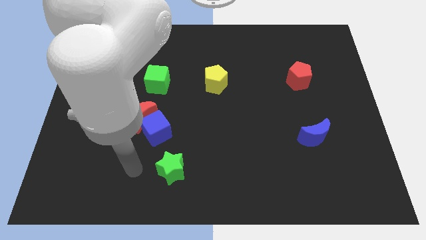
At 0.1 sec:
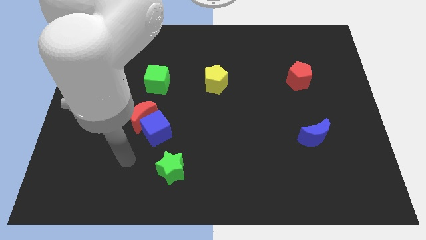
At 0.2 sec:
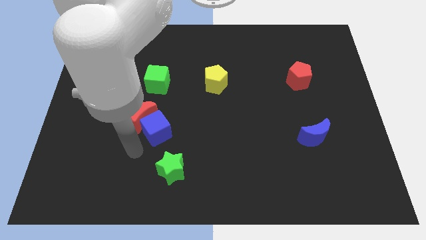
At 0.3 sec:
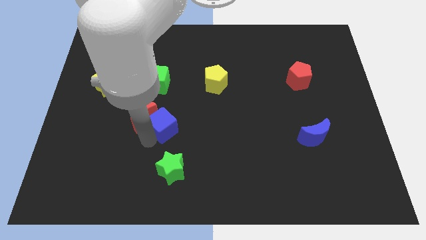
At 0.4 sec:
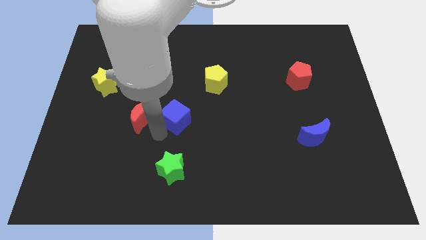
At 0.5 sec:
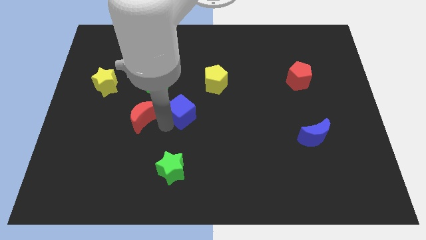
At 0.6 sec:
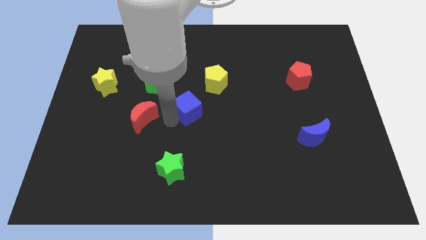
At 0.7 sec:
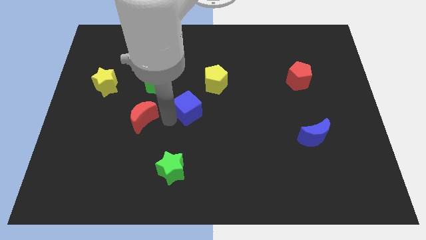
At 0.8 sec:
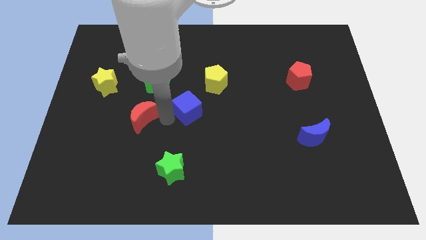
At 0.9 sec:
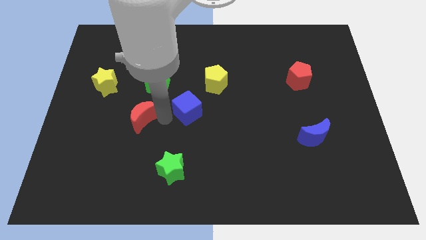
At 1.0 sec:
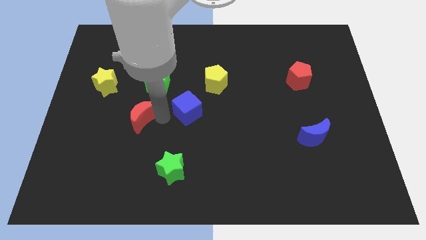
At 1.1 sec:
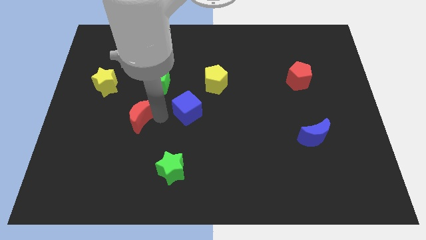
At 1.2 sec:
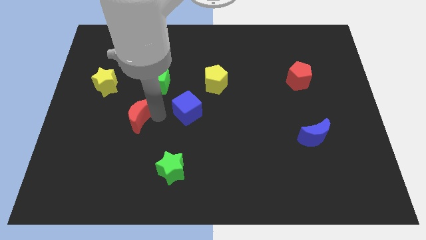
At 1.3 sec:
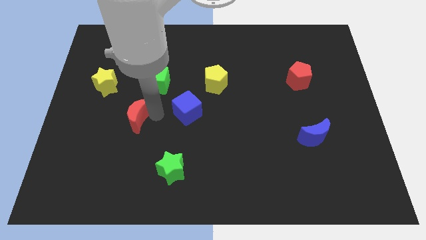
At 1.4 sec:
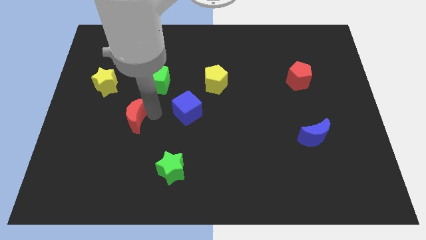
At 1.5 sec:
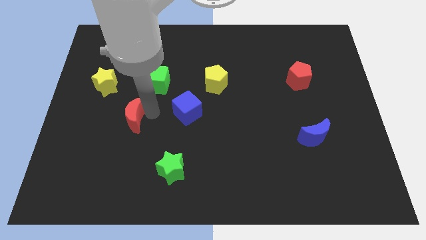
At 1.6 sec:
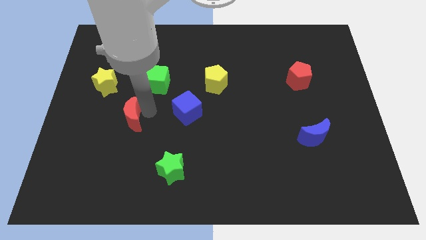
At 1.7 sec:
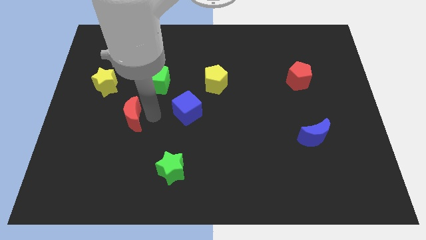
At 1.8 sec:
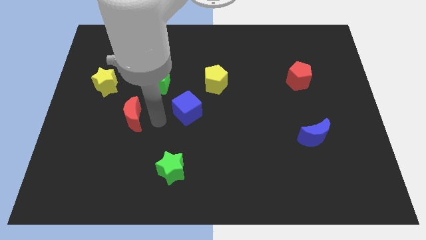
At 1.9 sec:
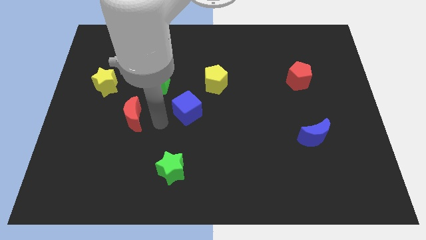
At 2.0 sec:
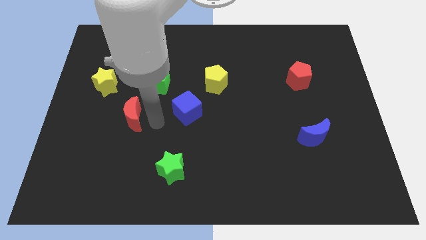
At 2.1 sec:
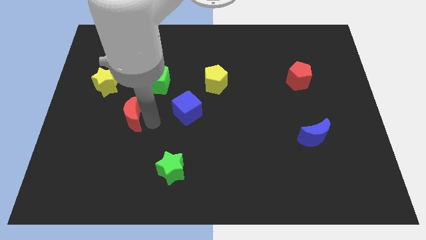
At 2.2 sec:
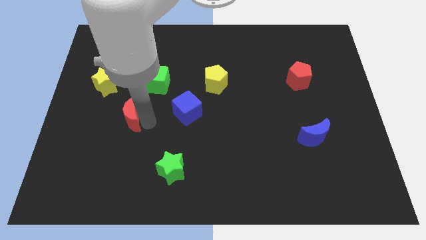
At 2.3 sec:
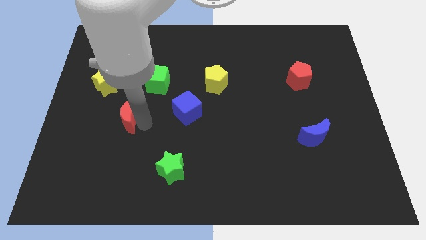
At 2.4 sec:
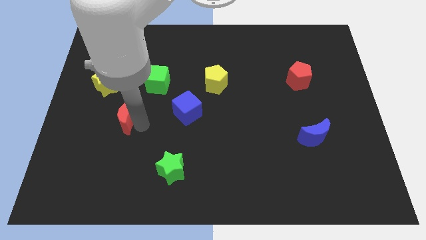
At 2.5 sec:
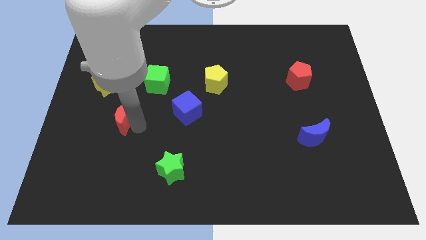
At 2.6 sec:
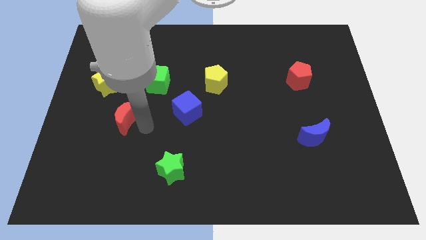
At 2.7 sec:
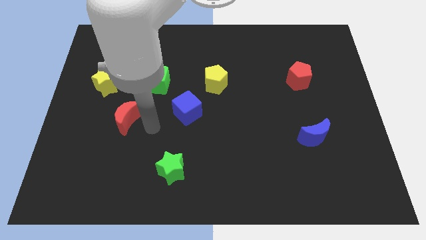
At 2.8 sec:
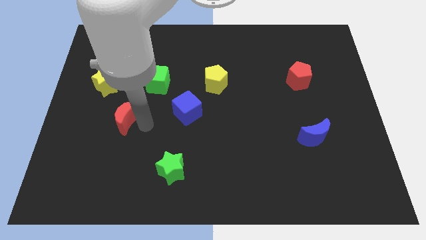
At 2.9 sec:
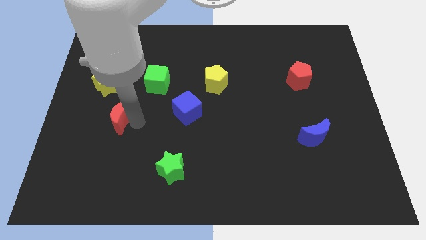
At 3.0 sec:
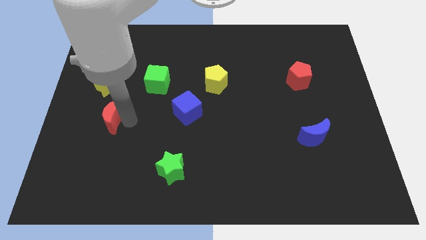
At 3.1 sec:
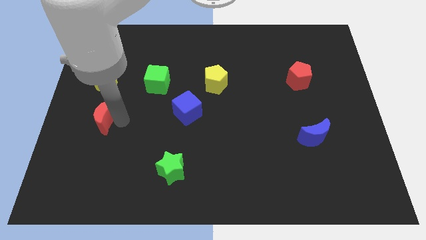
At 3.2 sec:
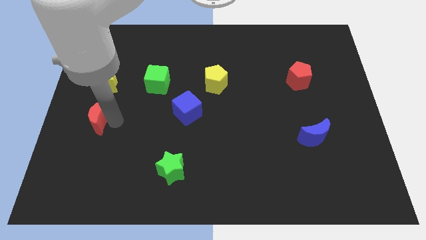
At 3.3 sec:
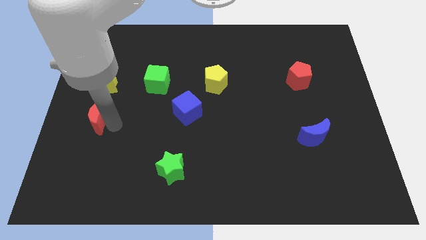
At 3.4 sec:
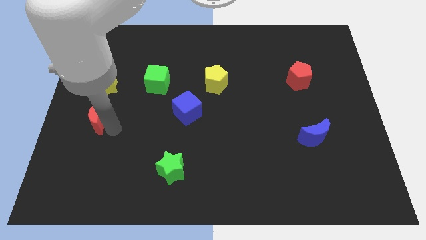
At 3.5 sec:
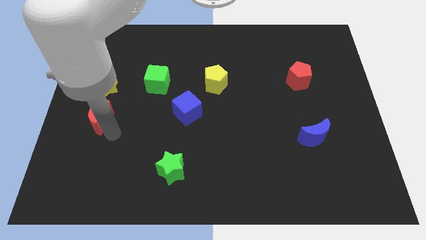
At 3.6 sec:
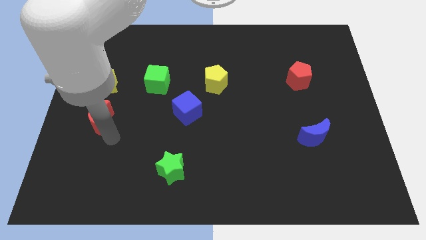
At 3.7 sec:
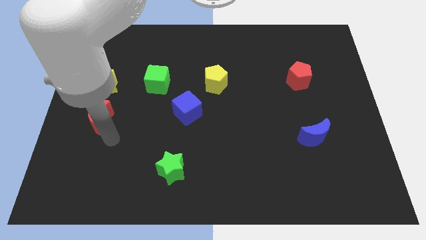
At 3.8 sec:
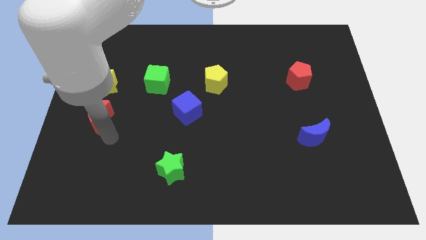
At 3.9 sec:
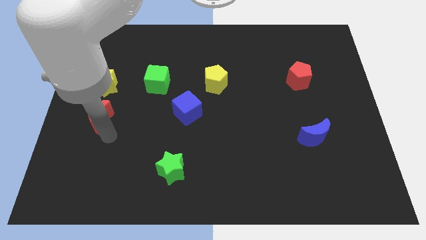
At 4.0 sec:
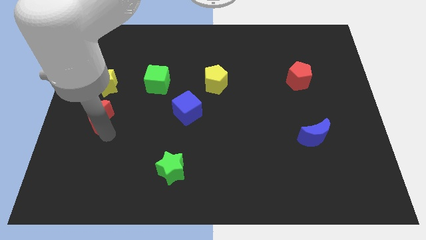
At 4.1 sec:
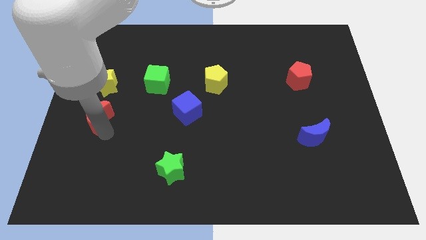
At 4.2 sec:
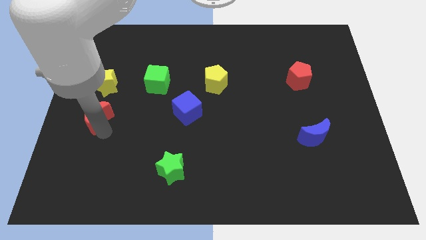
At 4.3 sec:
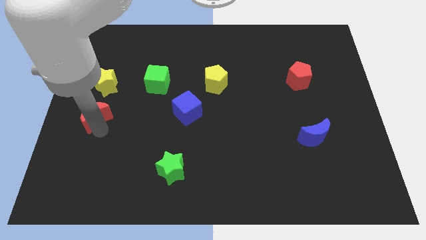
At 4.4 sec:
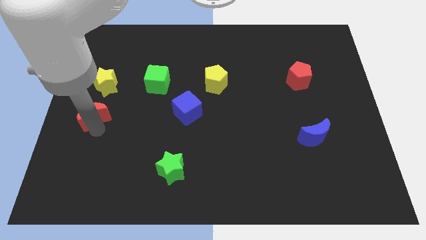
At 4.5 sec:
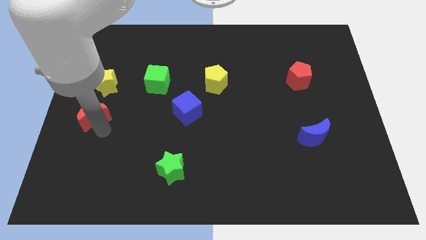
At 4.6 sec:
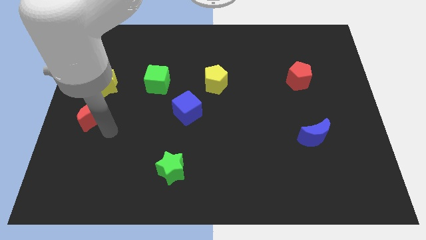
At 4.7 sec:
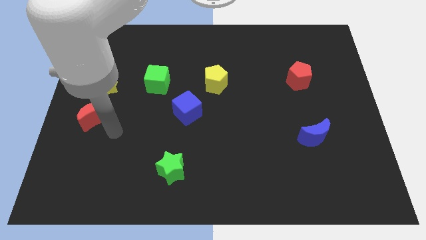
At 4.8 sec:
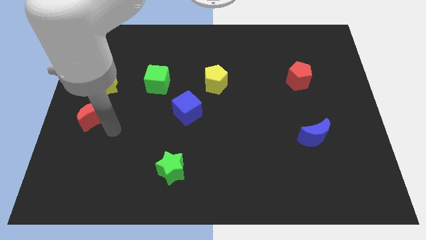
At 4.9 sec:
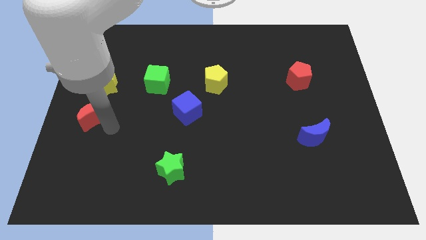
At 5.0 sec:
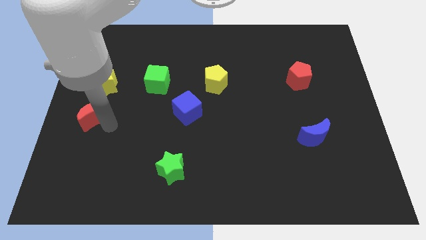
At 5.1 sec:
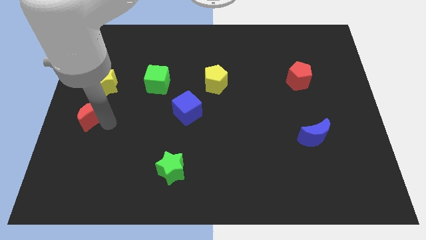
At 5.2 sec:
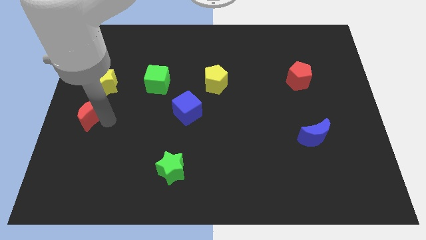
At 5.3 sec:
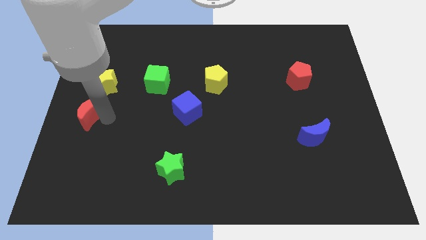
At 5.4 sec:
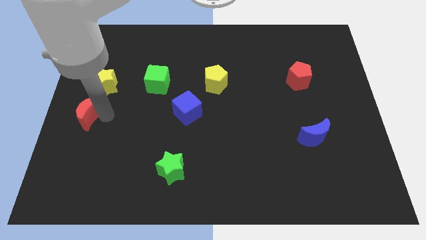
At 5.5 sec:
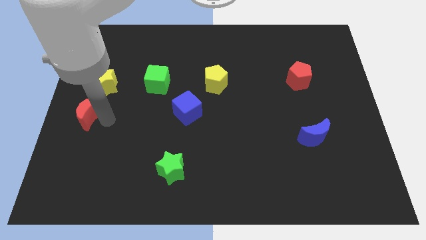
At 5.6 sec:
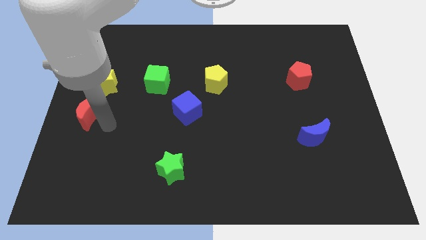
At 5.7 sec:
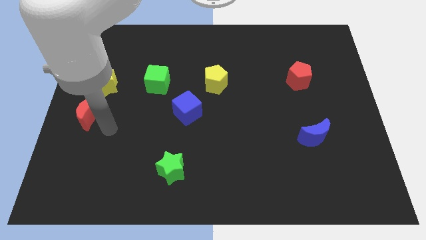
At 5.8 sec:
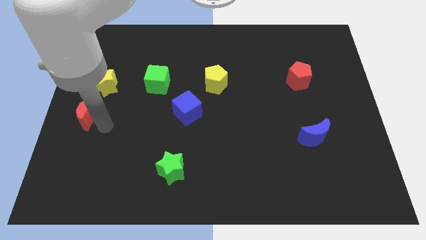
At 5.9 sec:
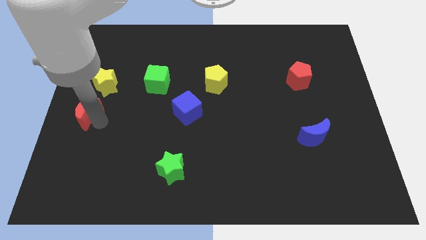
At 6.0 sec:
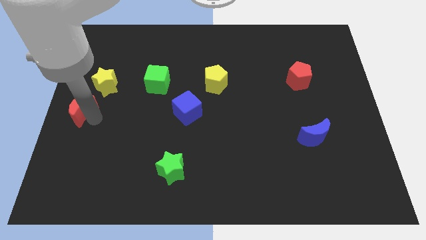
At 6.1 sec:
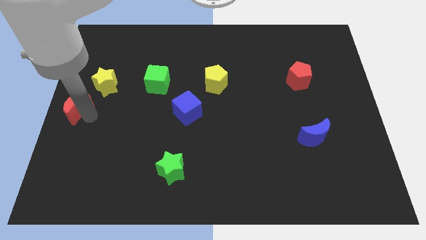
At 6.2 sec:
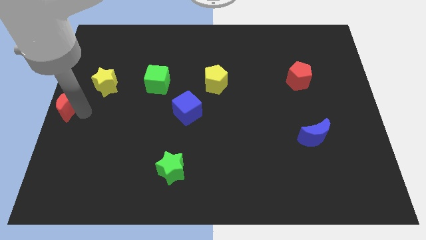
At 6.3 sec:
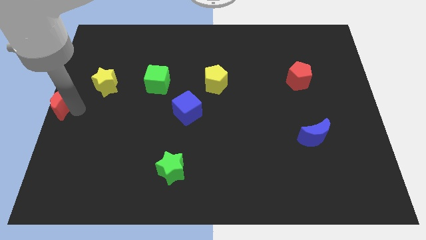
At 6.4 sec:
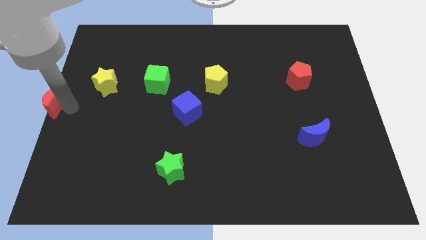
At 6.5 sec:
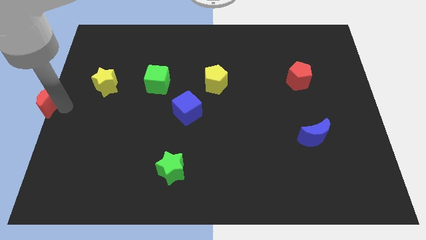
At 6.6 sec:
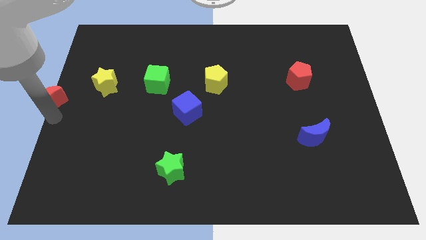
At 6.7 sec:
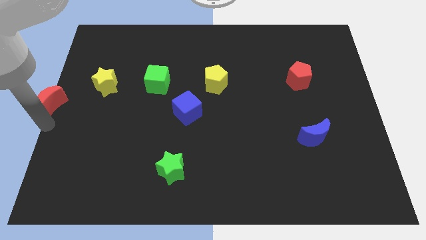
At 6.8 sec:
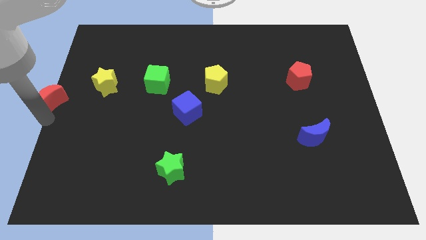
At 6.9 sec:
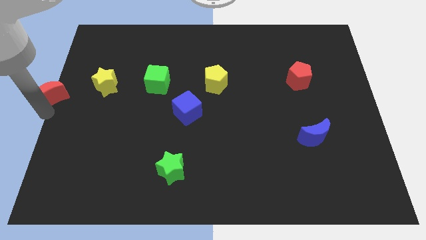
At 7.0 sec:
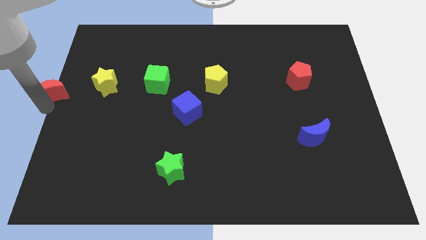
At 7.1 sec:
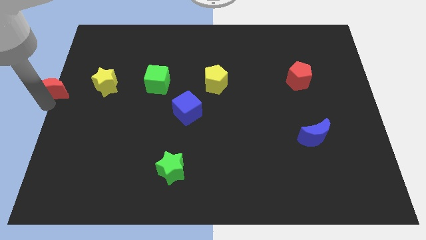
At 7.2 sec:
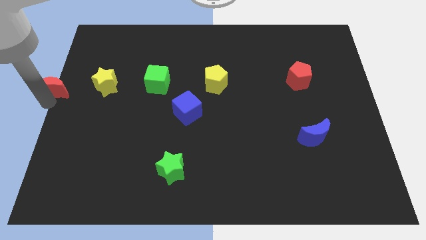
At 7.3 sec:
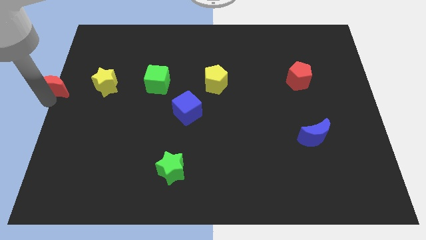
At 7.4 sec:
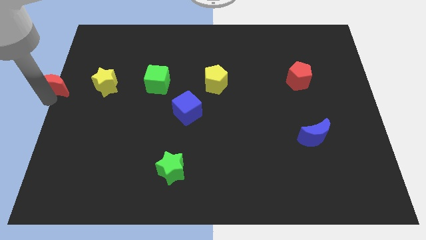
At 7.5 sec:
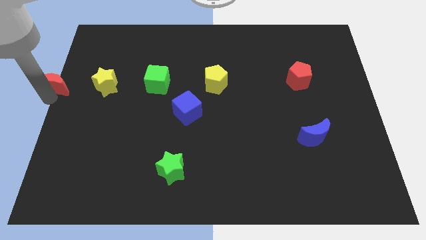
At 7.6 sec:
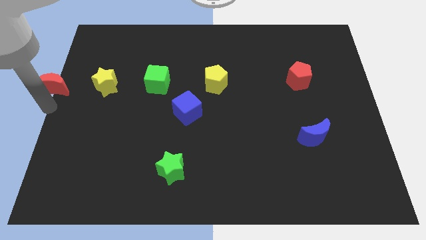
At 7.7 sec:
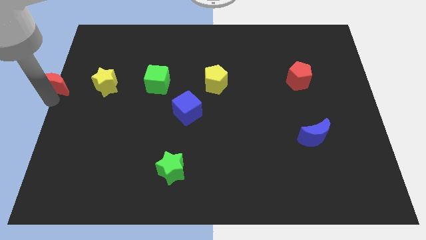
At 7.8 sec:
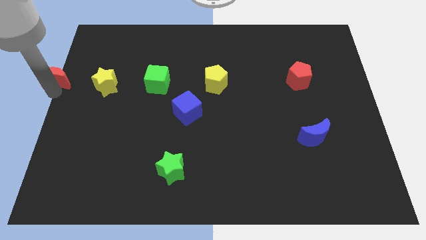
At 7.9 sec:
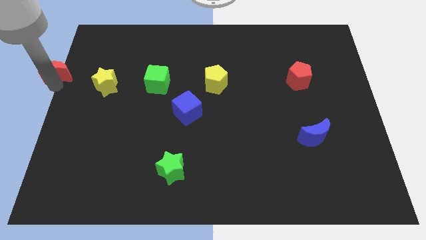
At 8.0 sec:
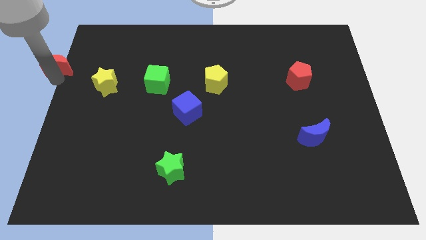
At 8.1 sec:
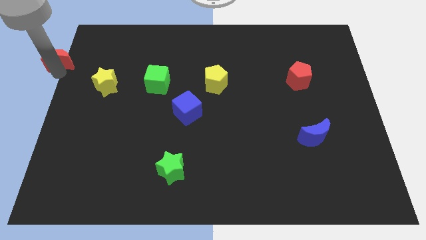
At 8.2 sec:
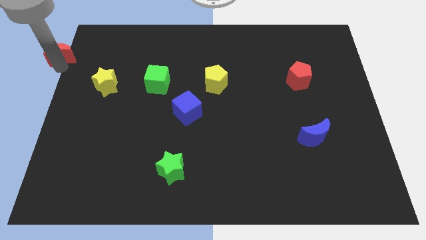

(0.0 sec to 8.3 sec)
slide the red moon to the top left corner
